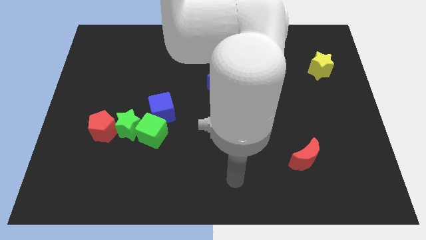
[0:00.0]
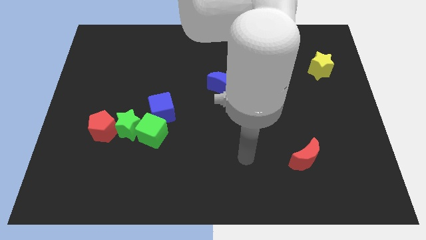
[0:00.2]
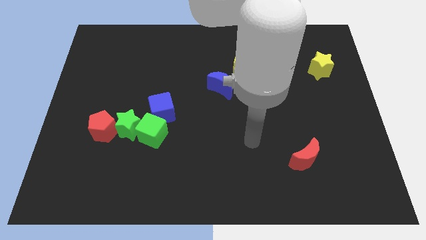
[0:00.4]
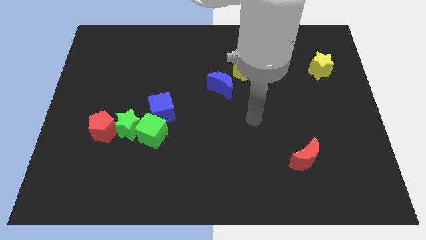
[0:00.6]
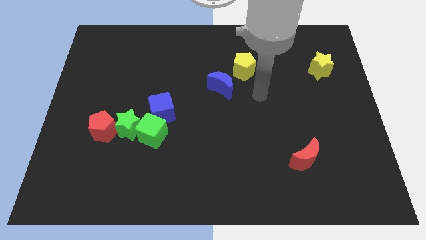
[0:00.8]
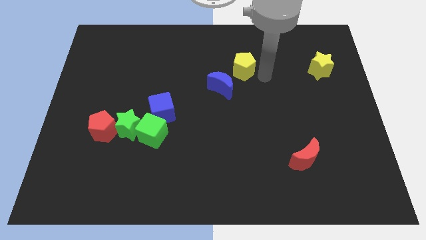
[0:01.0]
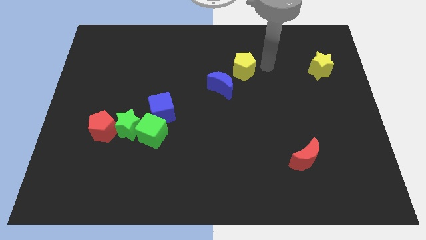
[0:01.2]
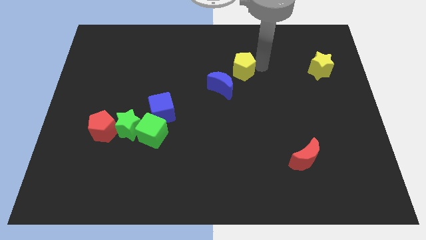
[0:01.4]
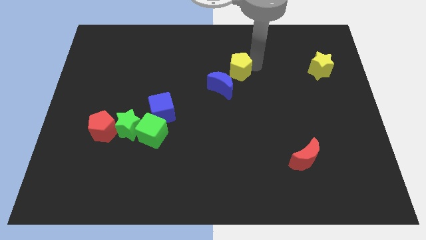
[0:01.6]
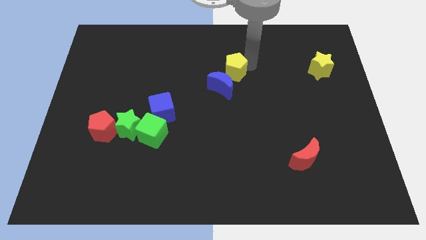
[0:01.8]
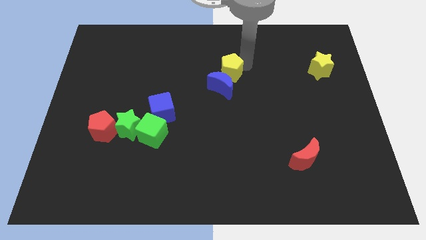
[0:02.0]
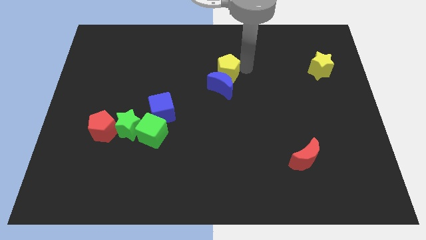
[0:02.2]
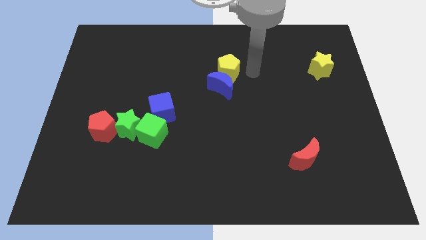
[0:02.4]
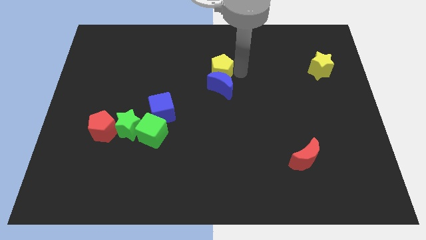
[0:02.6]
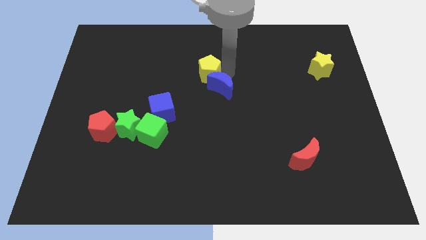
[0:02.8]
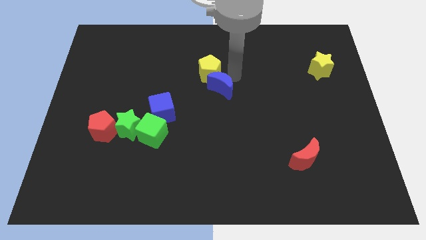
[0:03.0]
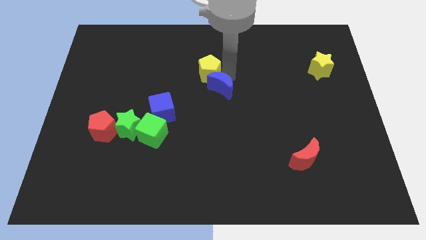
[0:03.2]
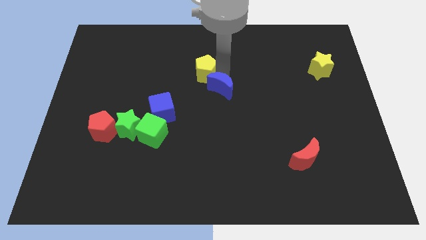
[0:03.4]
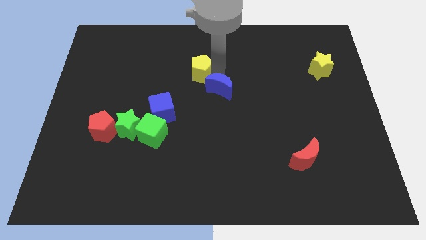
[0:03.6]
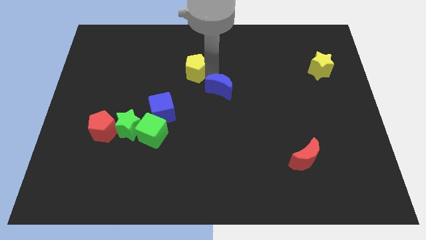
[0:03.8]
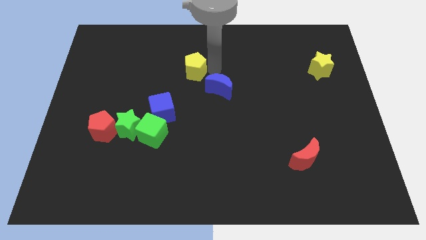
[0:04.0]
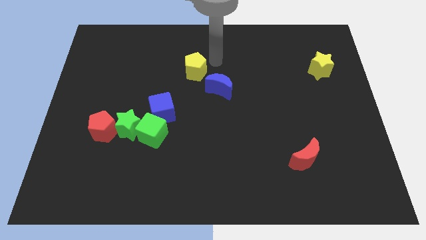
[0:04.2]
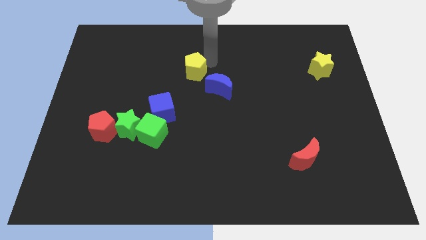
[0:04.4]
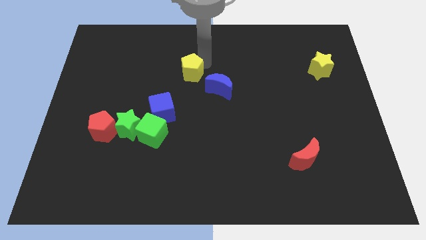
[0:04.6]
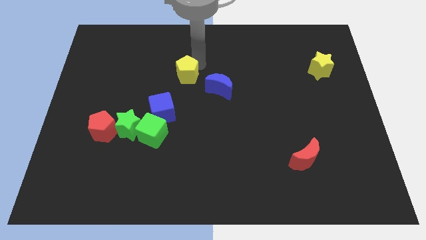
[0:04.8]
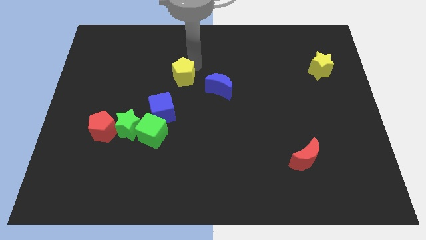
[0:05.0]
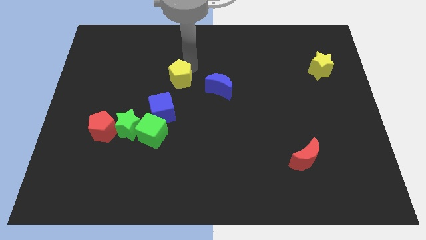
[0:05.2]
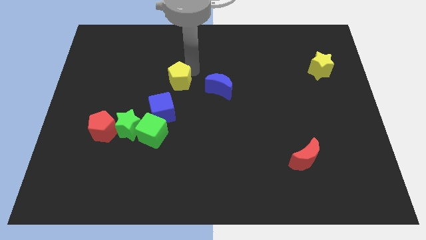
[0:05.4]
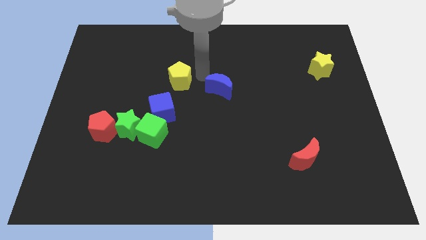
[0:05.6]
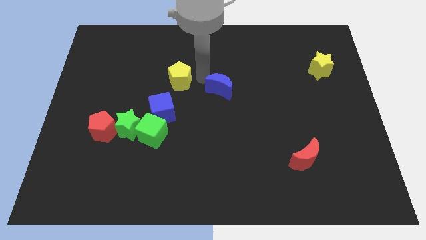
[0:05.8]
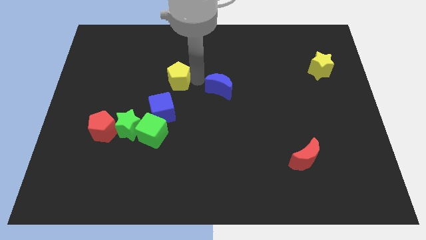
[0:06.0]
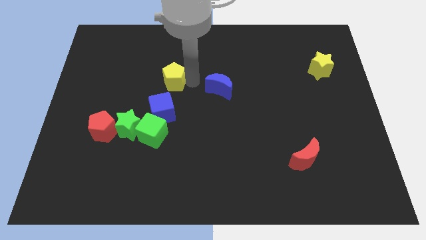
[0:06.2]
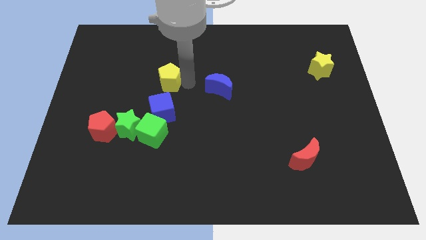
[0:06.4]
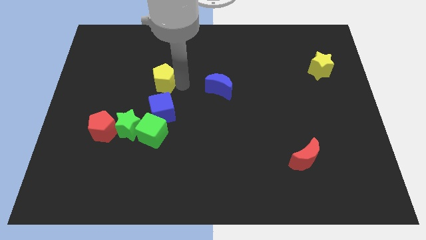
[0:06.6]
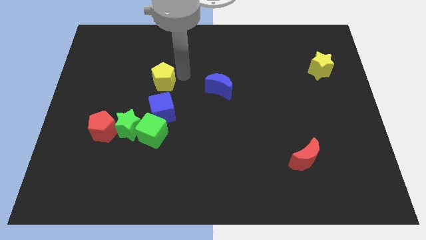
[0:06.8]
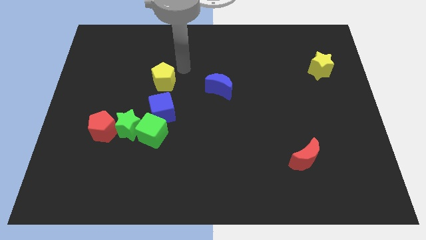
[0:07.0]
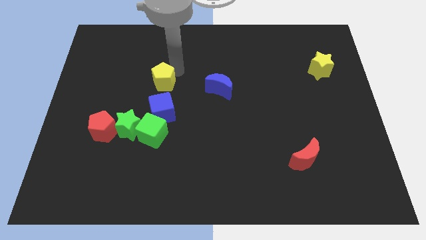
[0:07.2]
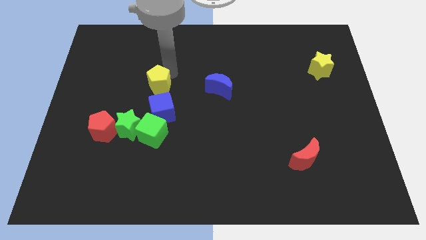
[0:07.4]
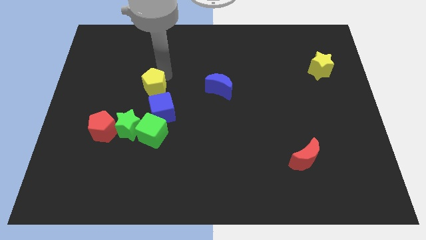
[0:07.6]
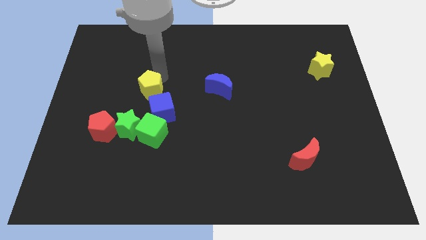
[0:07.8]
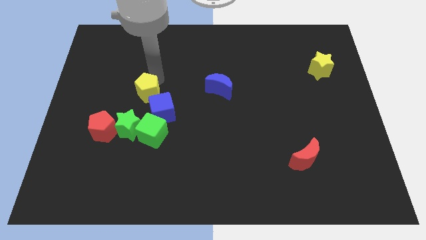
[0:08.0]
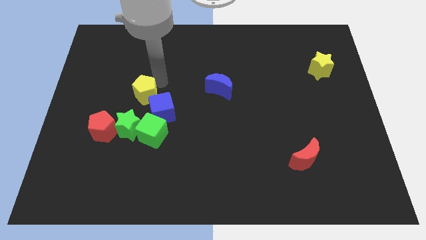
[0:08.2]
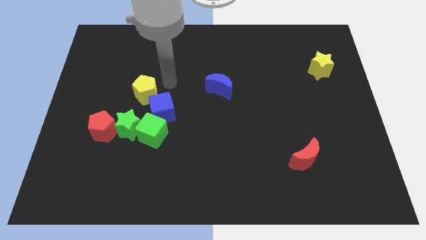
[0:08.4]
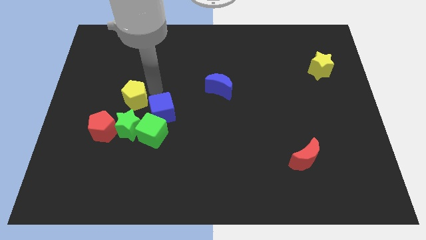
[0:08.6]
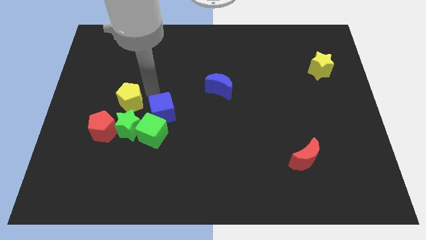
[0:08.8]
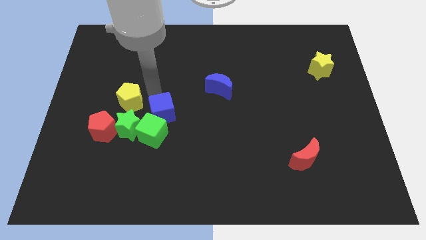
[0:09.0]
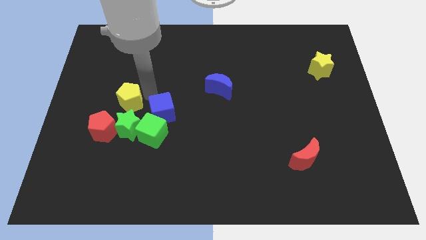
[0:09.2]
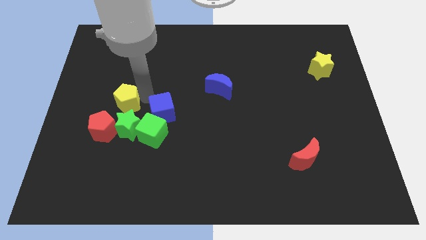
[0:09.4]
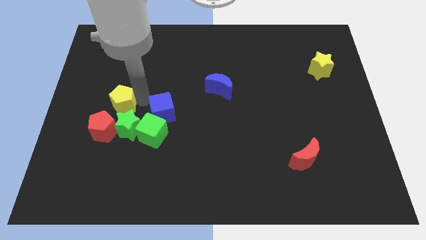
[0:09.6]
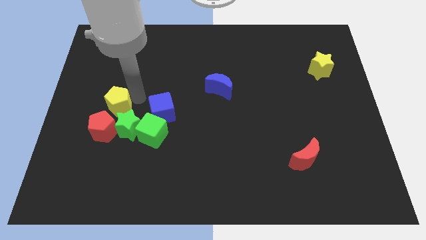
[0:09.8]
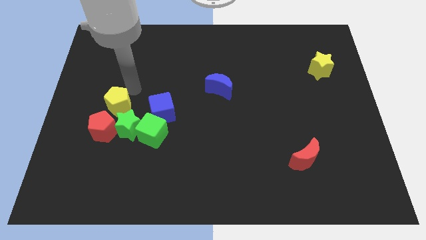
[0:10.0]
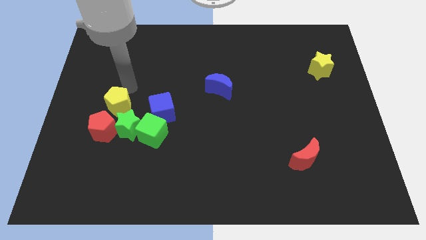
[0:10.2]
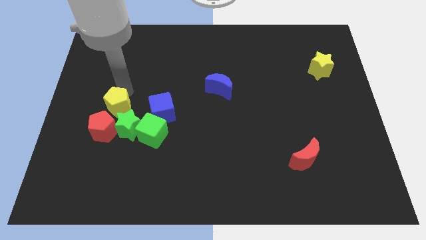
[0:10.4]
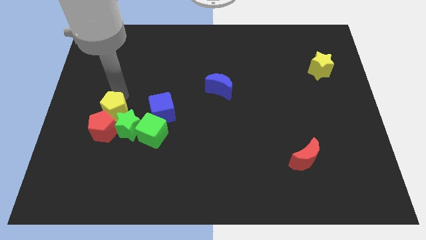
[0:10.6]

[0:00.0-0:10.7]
slide the yellow pentagon to the red pentagon

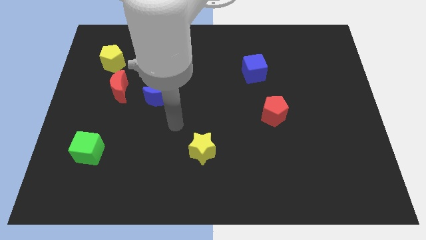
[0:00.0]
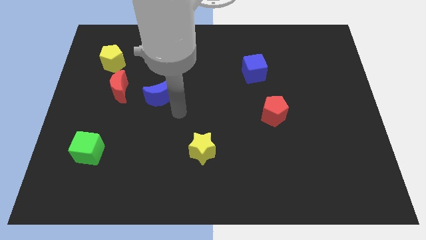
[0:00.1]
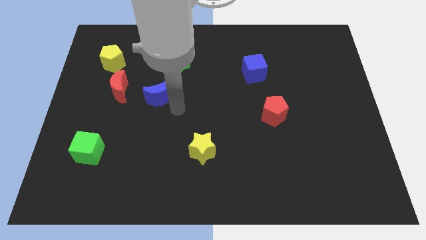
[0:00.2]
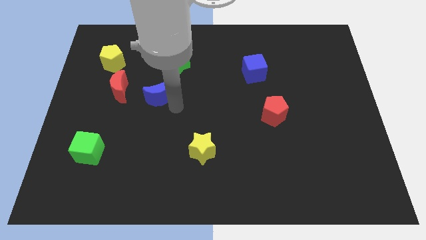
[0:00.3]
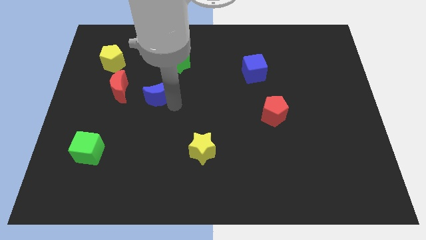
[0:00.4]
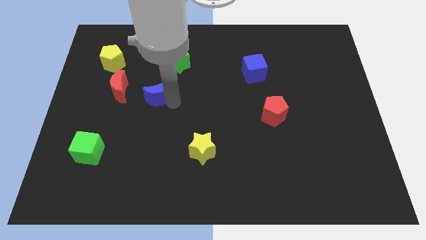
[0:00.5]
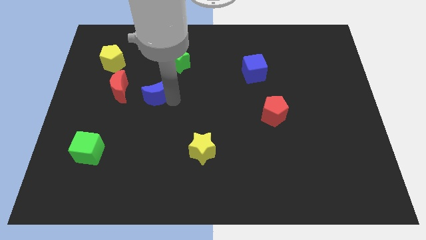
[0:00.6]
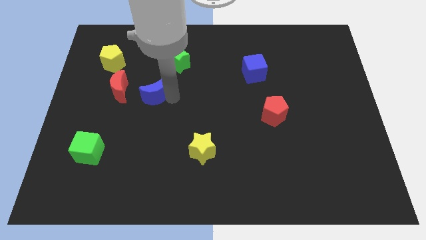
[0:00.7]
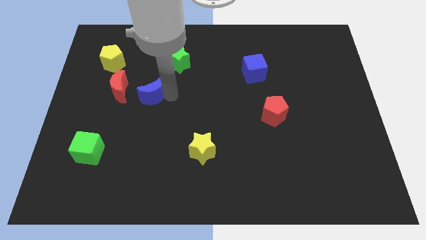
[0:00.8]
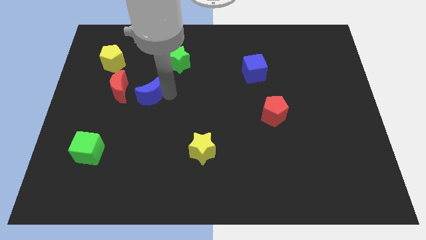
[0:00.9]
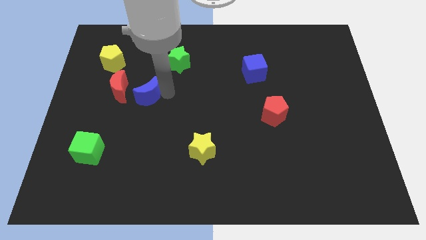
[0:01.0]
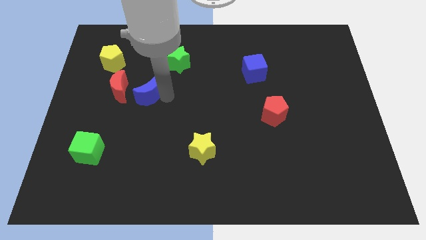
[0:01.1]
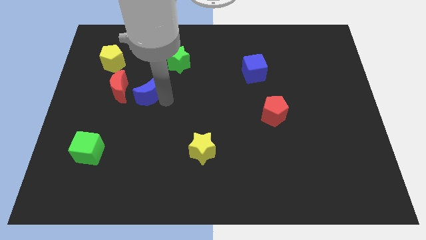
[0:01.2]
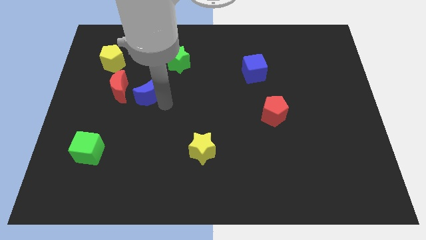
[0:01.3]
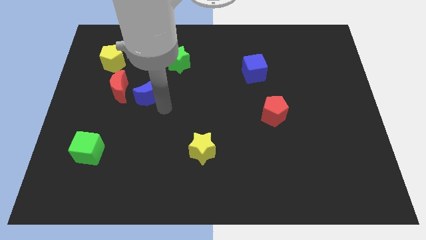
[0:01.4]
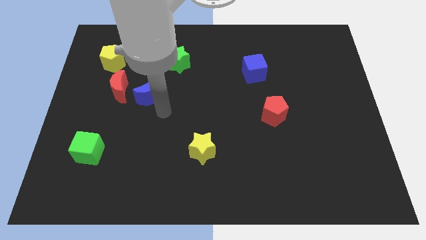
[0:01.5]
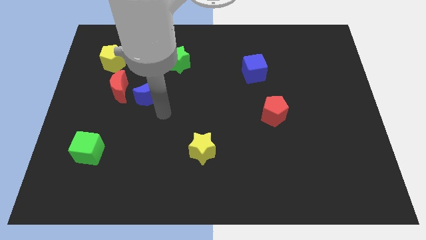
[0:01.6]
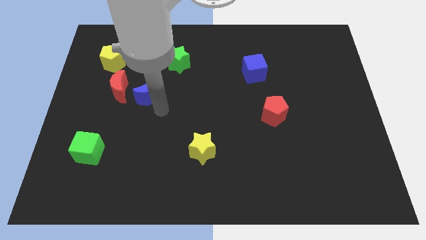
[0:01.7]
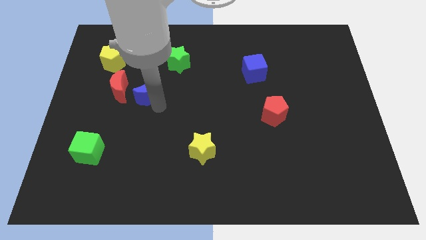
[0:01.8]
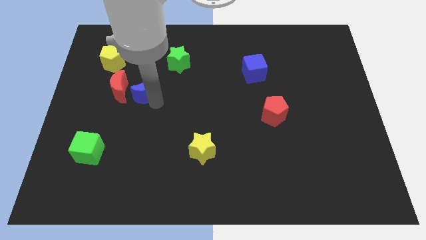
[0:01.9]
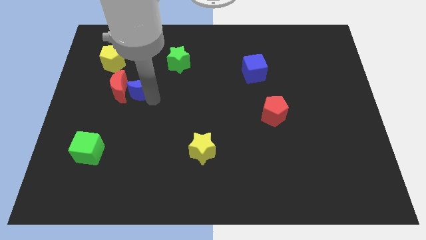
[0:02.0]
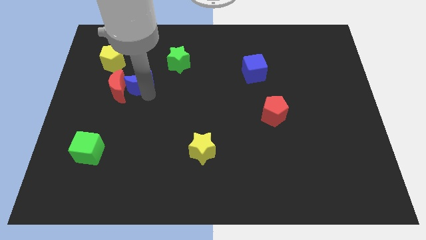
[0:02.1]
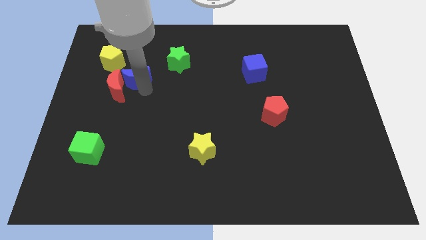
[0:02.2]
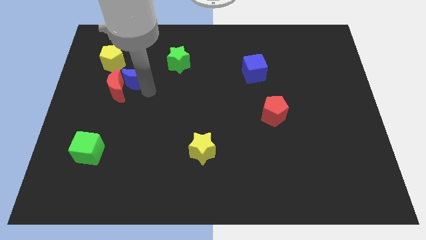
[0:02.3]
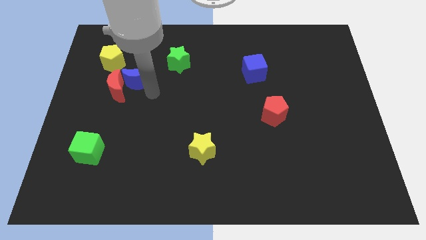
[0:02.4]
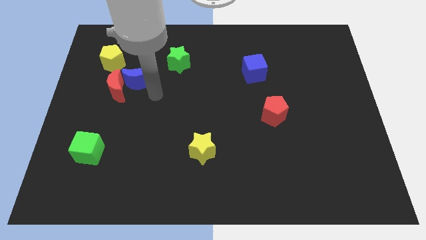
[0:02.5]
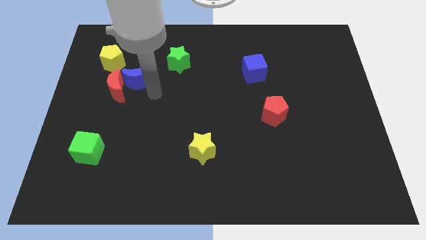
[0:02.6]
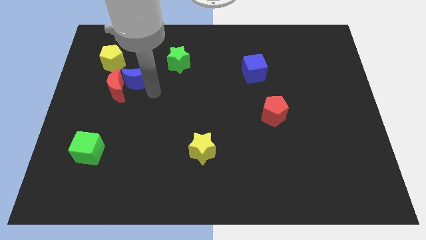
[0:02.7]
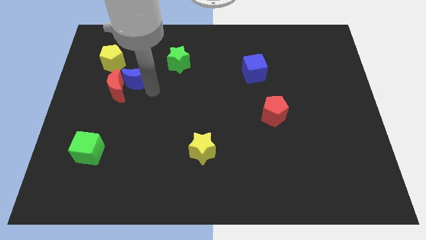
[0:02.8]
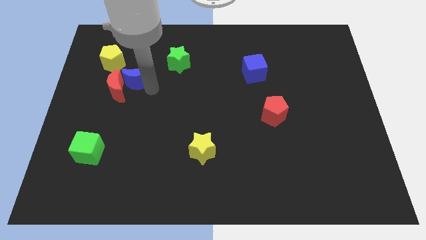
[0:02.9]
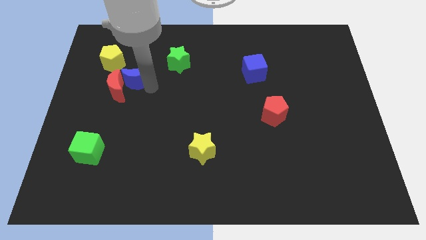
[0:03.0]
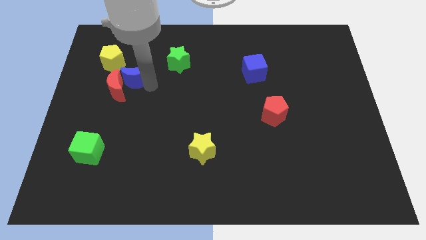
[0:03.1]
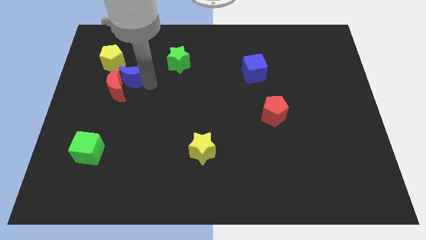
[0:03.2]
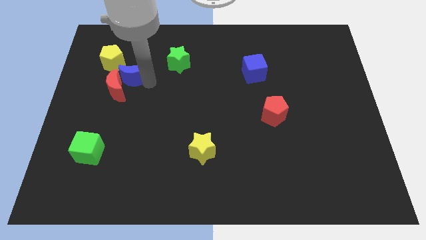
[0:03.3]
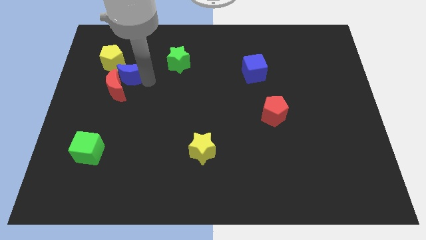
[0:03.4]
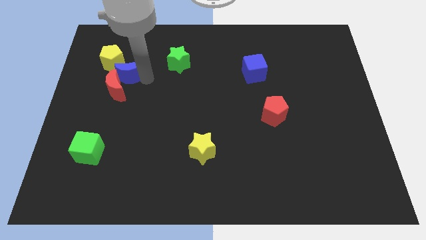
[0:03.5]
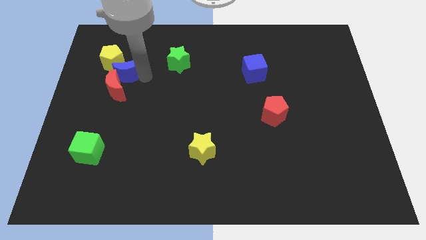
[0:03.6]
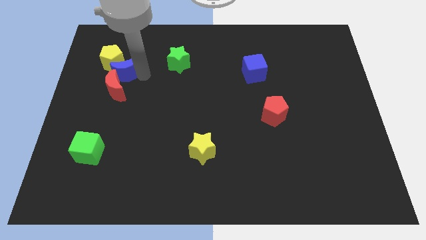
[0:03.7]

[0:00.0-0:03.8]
move the blue moon towards the yellow pentagon
